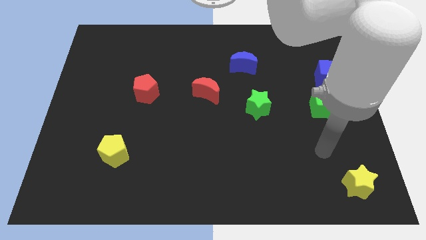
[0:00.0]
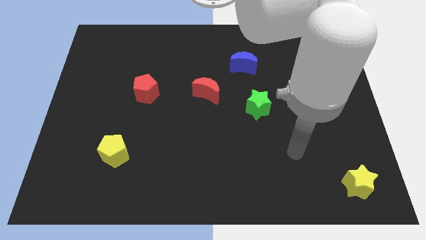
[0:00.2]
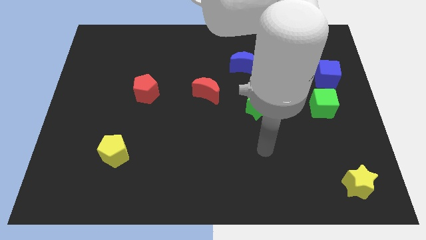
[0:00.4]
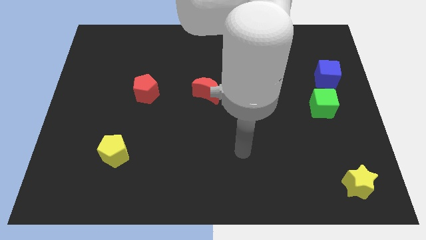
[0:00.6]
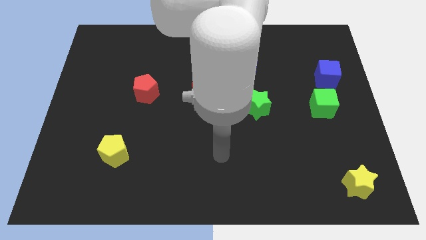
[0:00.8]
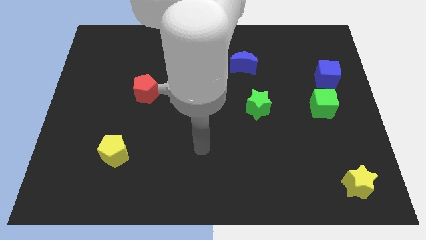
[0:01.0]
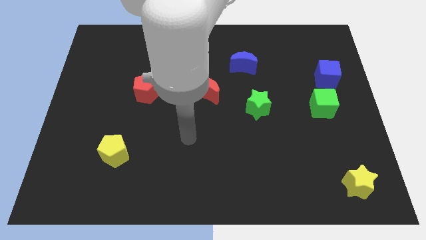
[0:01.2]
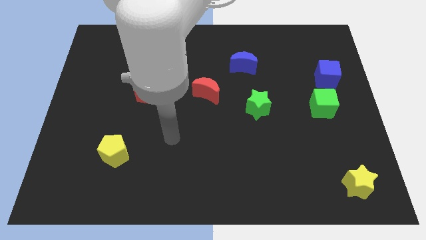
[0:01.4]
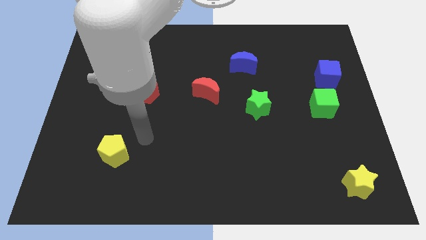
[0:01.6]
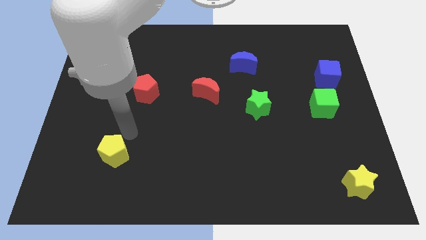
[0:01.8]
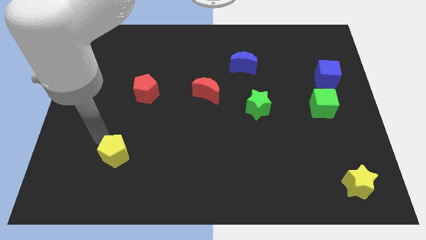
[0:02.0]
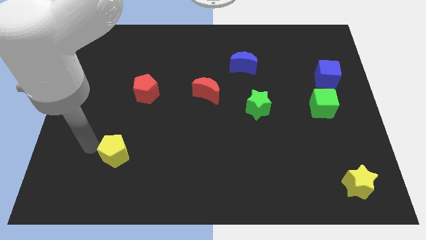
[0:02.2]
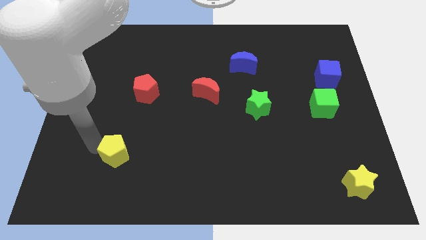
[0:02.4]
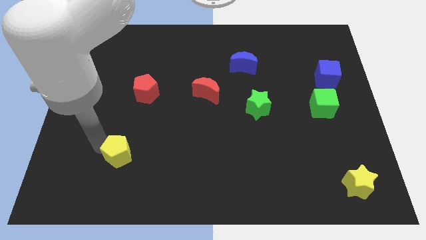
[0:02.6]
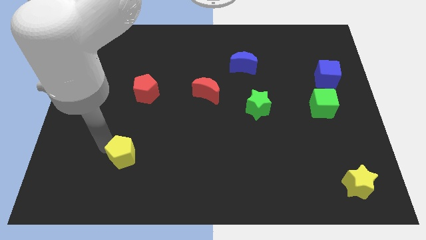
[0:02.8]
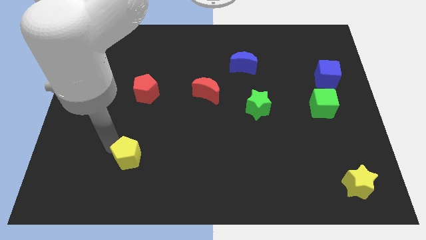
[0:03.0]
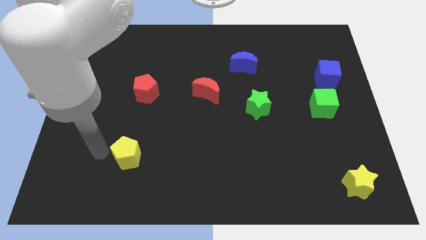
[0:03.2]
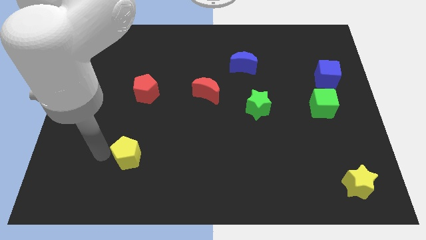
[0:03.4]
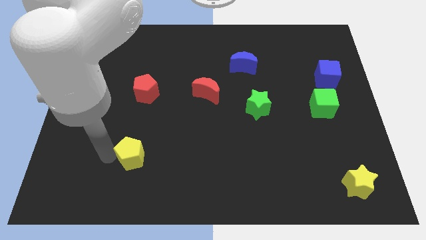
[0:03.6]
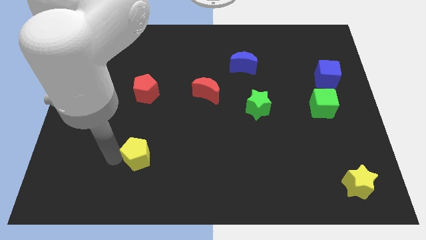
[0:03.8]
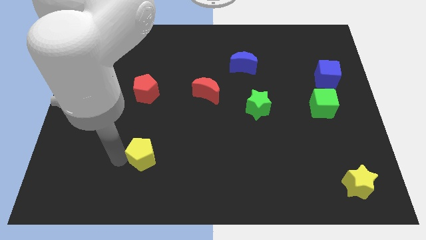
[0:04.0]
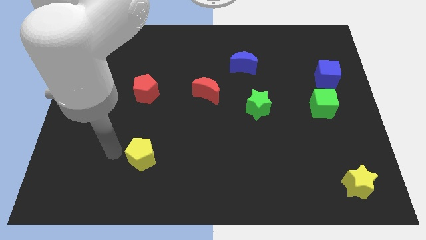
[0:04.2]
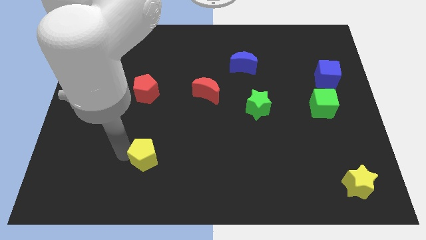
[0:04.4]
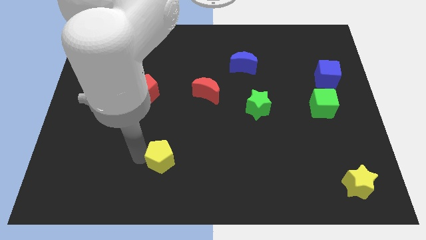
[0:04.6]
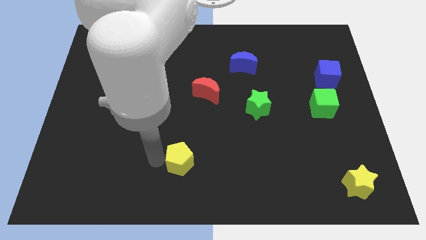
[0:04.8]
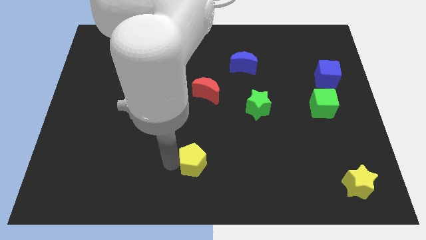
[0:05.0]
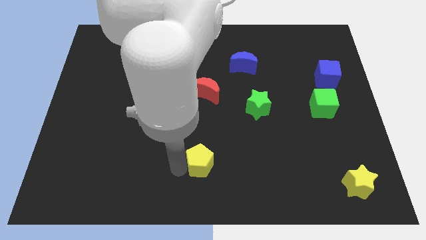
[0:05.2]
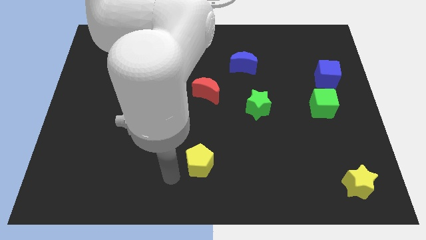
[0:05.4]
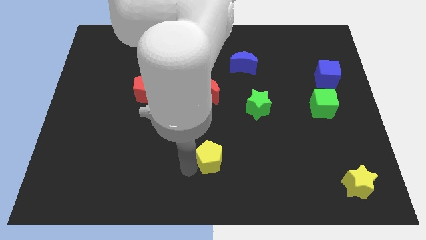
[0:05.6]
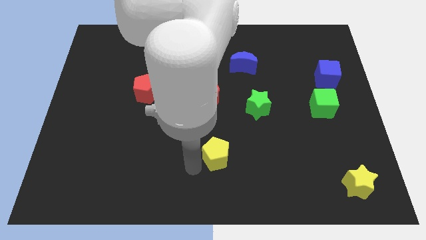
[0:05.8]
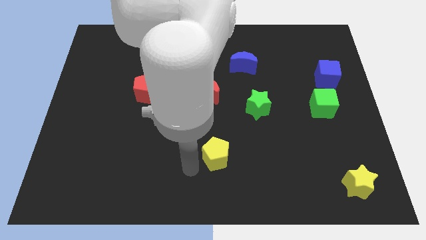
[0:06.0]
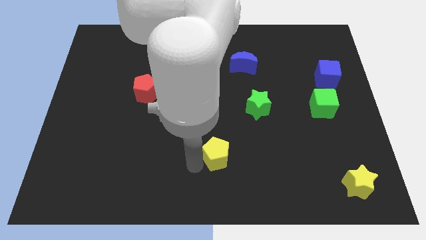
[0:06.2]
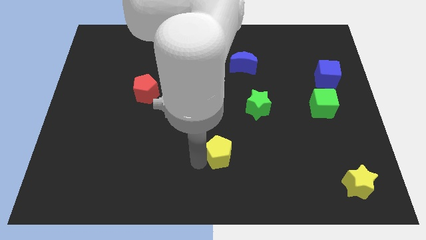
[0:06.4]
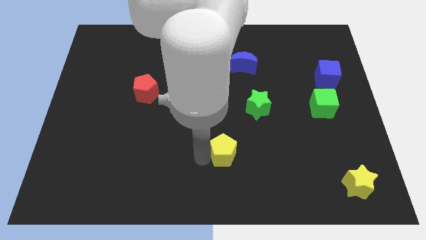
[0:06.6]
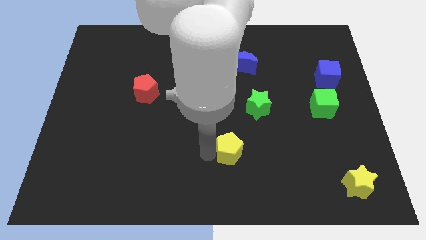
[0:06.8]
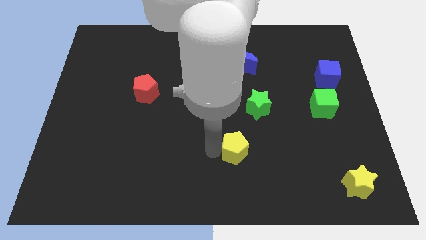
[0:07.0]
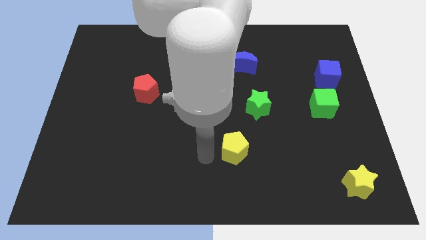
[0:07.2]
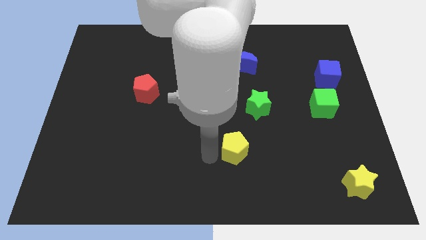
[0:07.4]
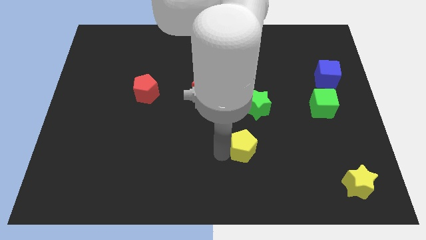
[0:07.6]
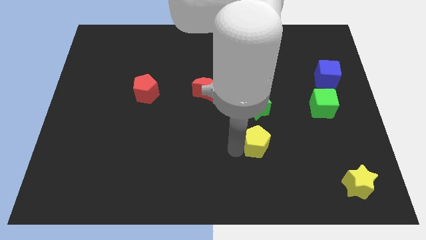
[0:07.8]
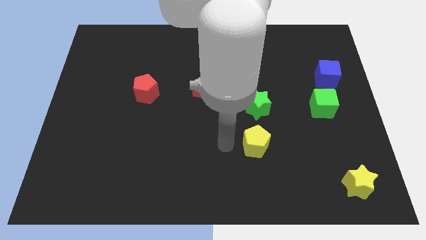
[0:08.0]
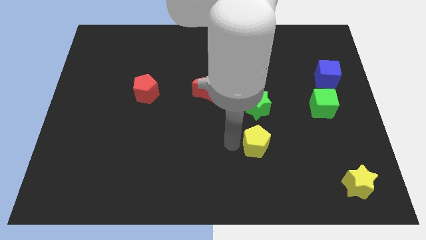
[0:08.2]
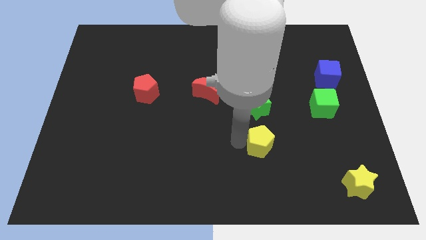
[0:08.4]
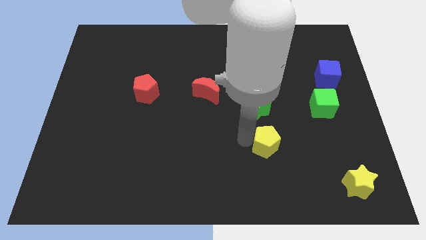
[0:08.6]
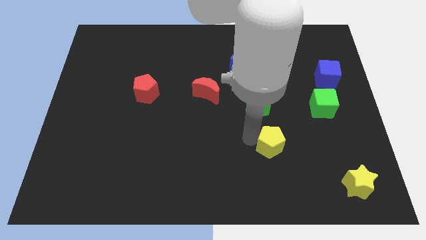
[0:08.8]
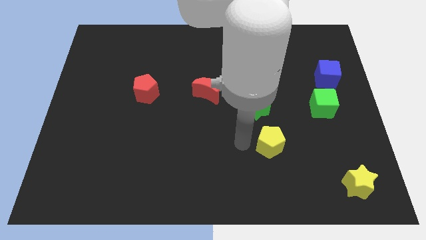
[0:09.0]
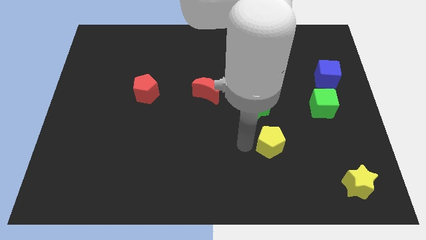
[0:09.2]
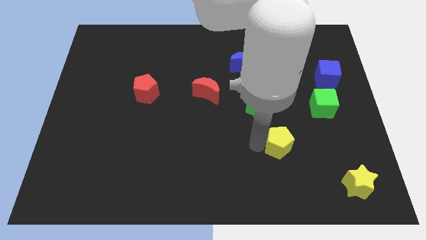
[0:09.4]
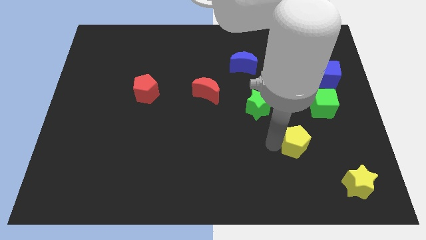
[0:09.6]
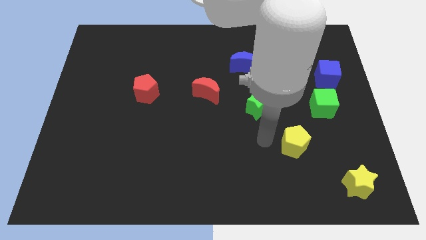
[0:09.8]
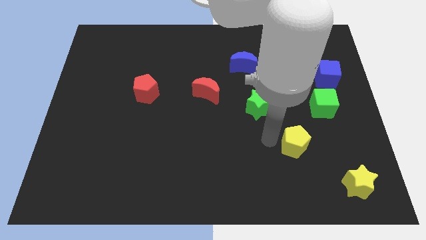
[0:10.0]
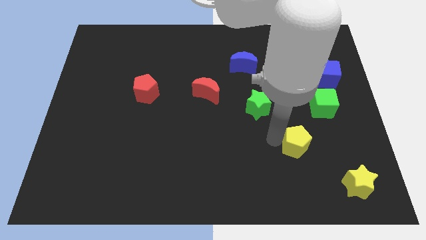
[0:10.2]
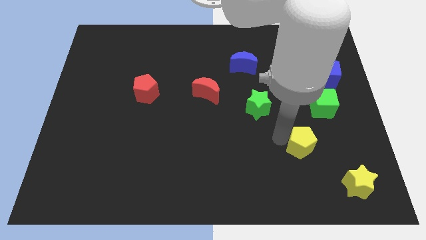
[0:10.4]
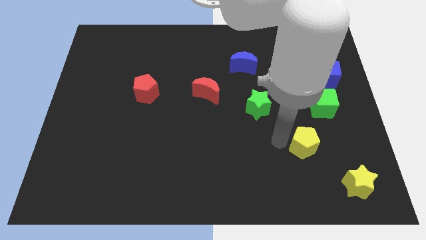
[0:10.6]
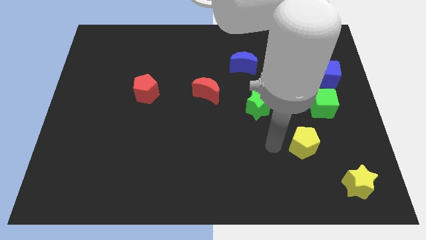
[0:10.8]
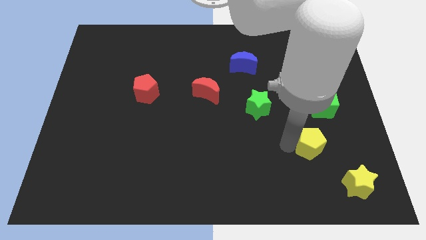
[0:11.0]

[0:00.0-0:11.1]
slide the yellow pentagon to the bottom of the green cube
